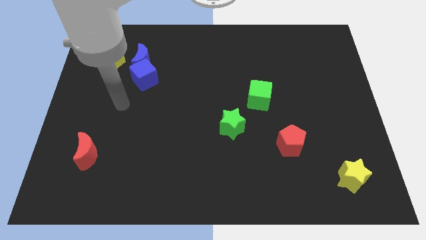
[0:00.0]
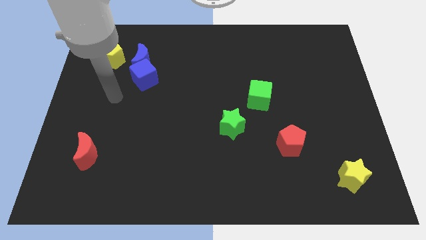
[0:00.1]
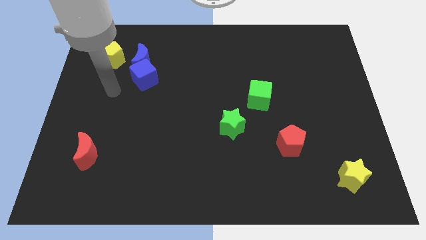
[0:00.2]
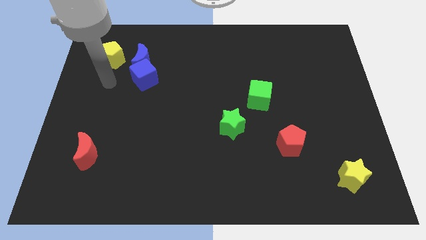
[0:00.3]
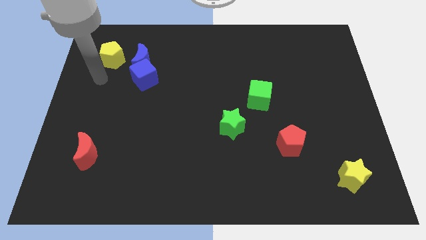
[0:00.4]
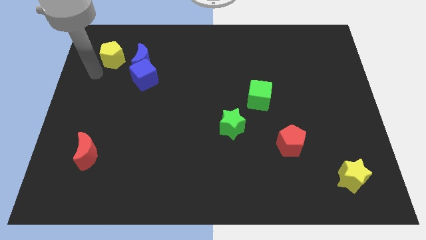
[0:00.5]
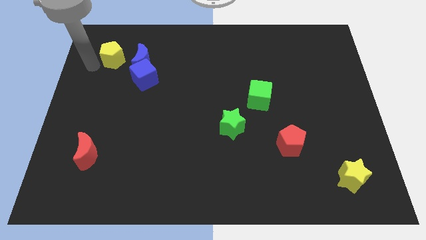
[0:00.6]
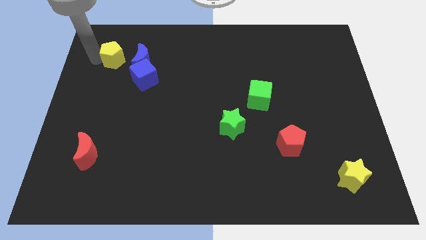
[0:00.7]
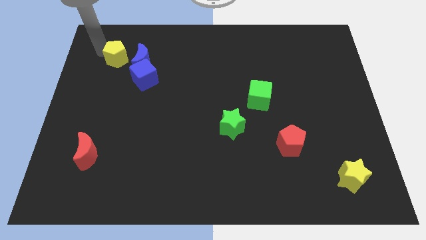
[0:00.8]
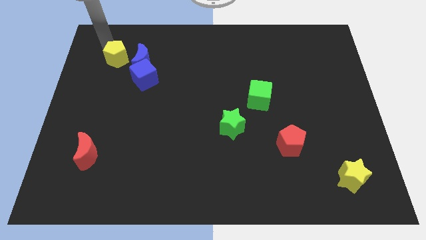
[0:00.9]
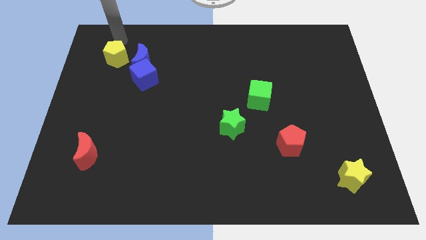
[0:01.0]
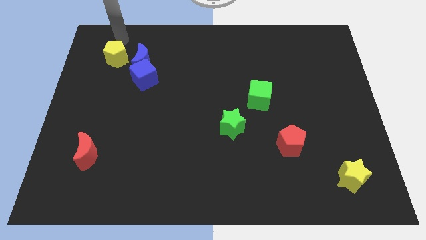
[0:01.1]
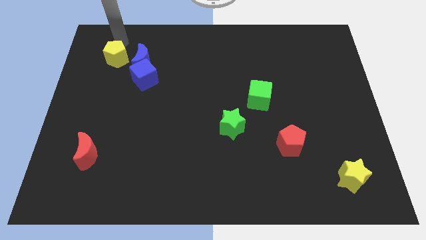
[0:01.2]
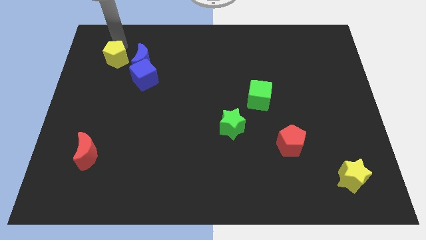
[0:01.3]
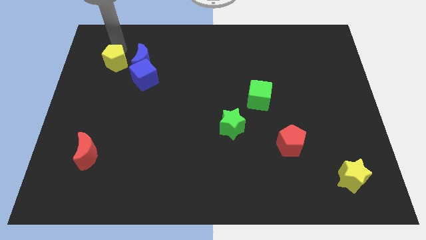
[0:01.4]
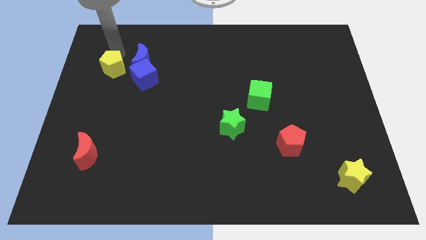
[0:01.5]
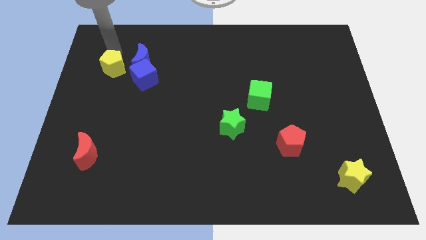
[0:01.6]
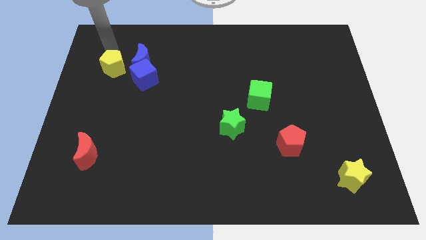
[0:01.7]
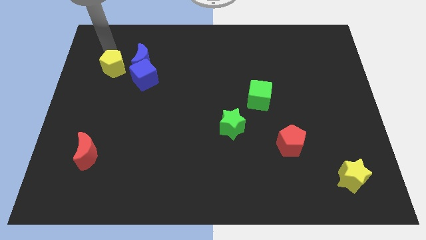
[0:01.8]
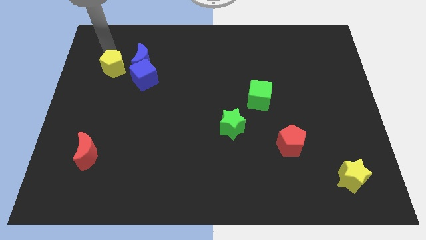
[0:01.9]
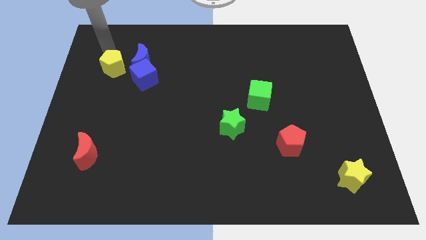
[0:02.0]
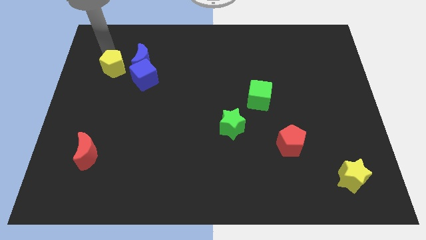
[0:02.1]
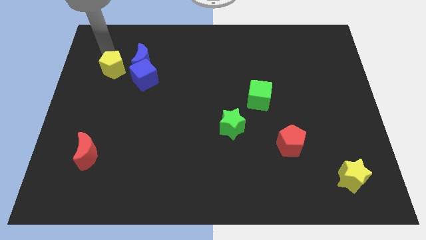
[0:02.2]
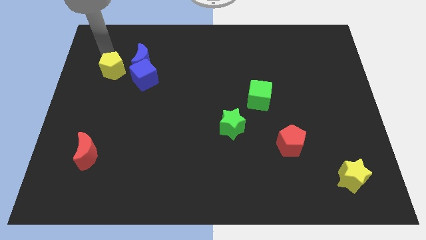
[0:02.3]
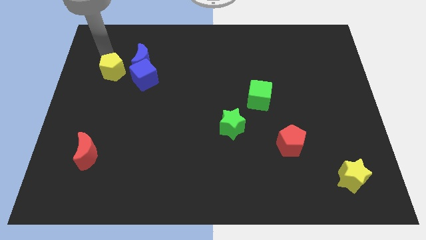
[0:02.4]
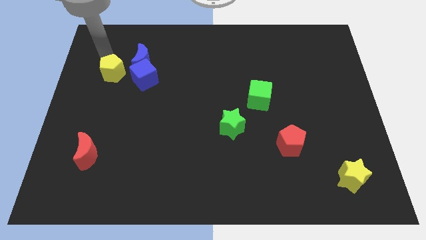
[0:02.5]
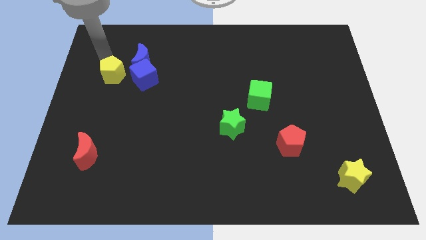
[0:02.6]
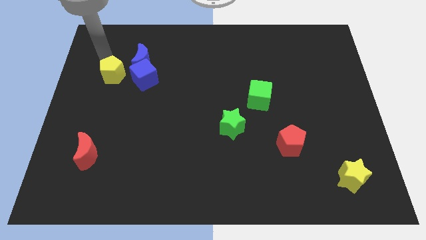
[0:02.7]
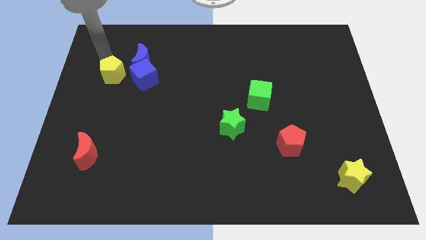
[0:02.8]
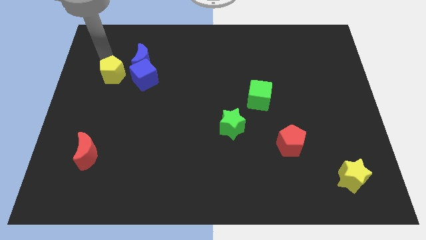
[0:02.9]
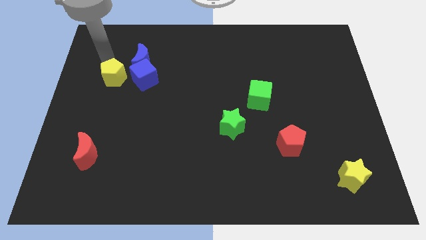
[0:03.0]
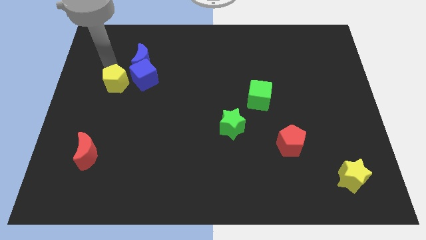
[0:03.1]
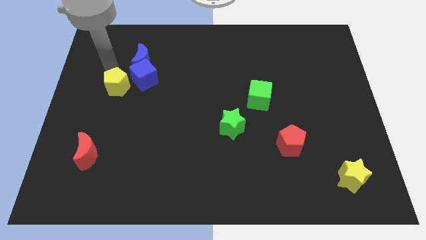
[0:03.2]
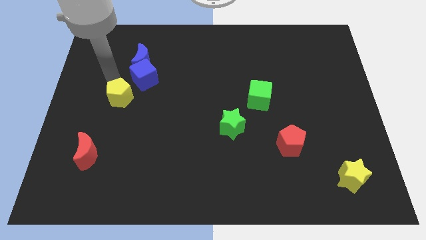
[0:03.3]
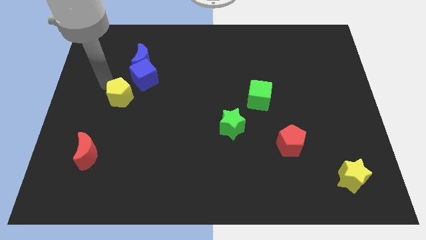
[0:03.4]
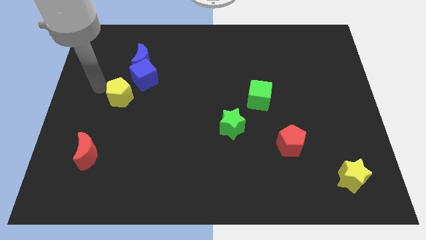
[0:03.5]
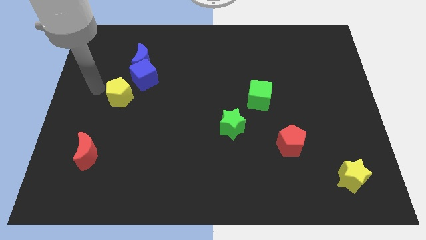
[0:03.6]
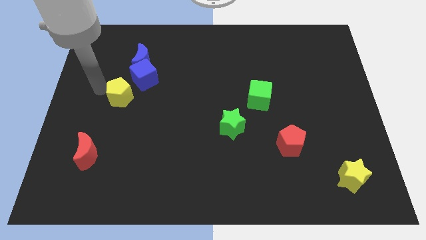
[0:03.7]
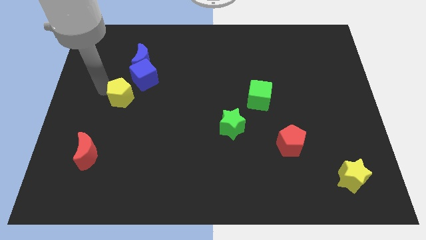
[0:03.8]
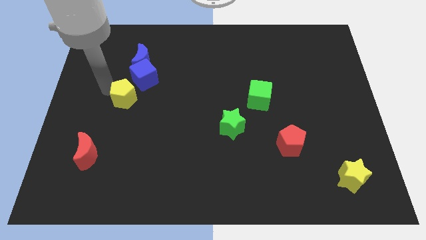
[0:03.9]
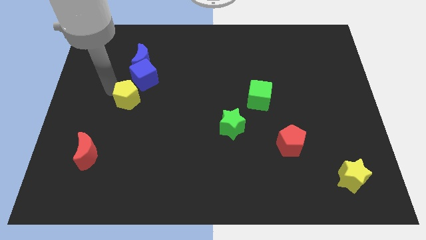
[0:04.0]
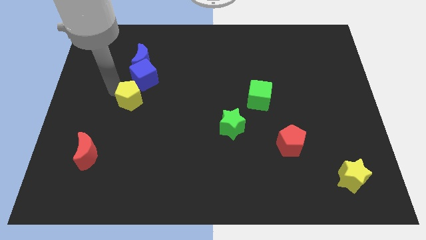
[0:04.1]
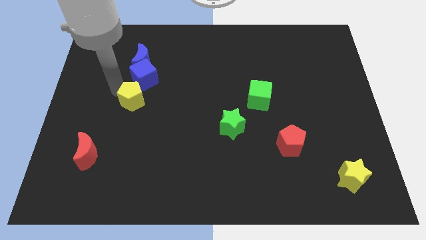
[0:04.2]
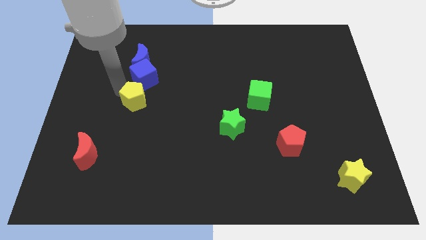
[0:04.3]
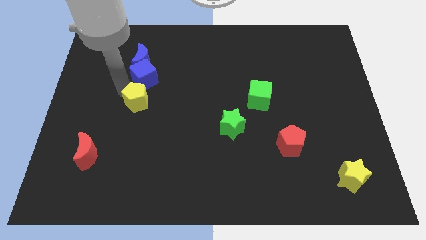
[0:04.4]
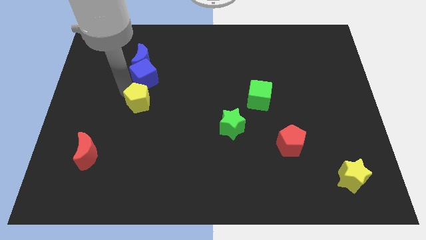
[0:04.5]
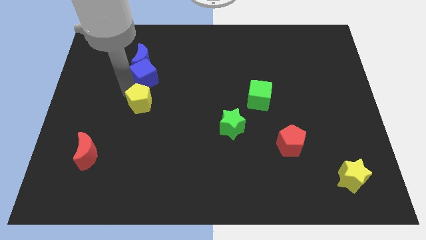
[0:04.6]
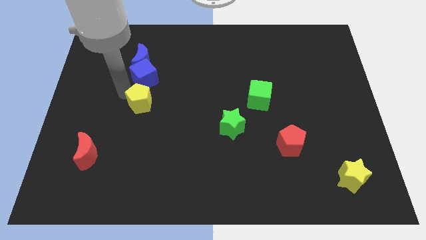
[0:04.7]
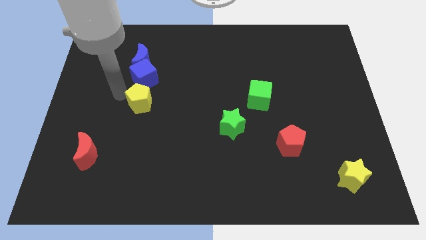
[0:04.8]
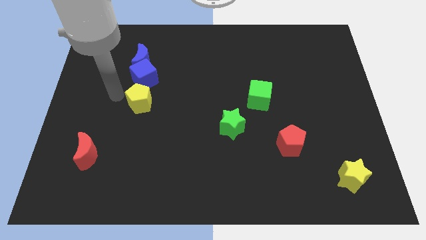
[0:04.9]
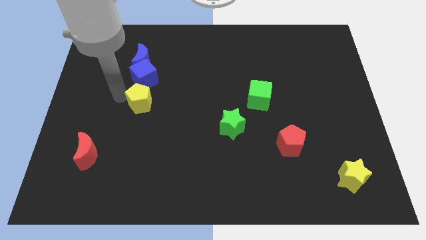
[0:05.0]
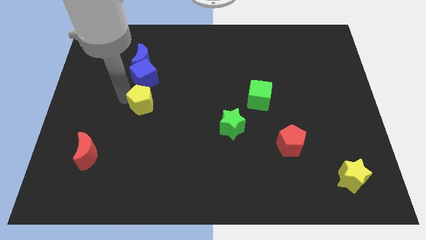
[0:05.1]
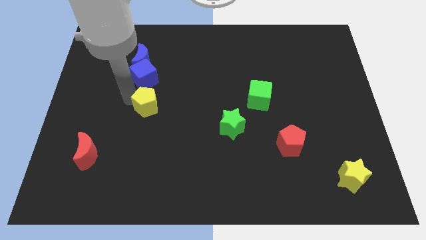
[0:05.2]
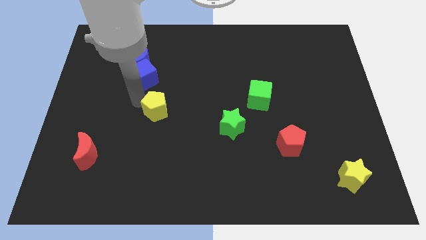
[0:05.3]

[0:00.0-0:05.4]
move the yellow pentagon down and to the right diagonally

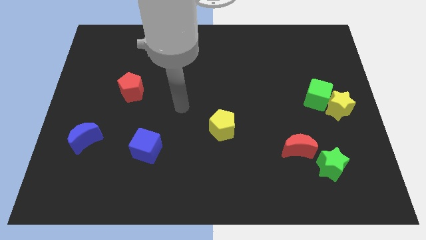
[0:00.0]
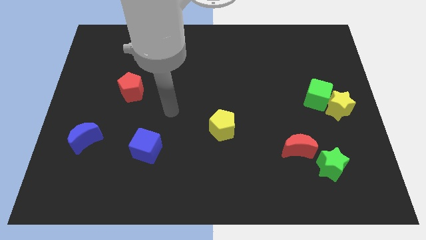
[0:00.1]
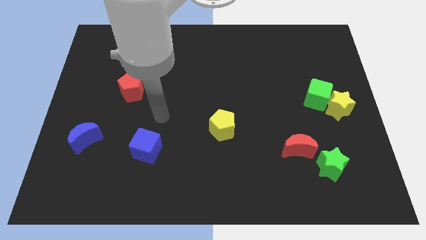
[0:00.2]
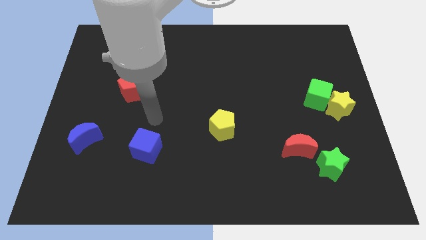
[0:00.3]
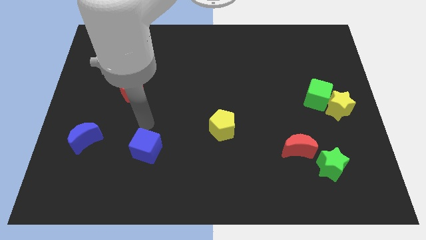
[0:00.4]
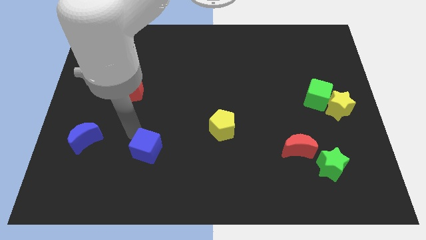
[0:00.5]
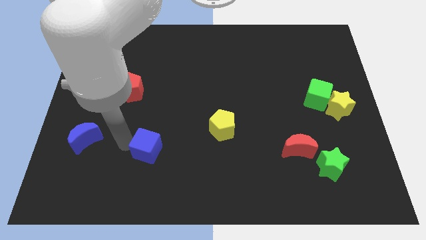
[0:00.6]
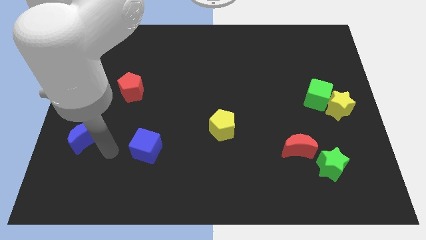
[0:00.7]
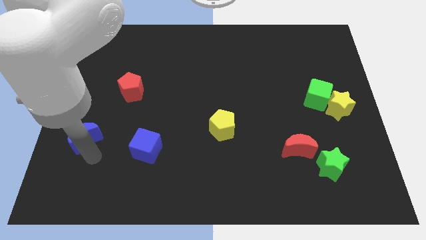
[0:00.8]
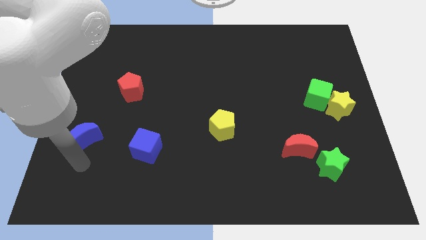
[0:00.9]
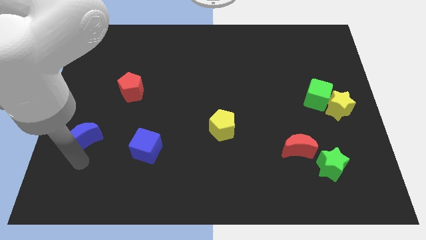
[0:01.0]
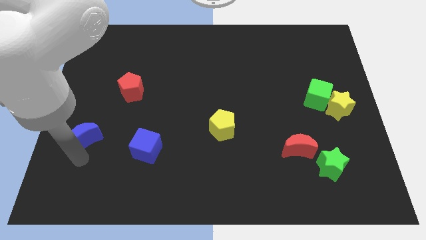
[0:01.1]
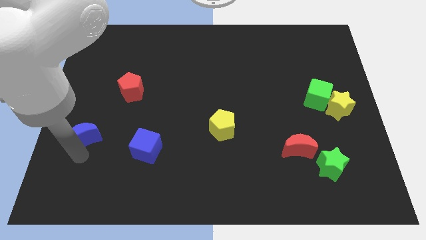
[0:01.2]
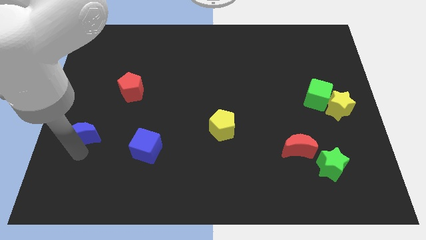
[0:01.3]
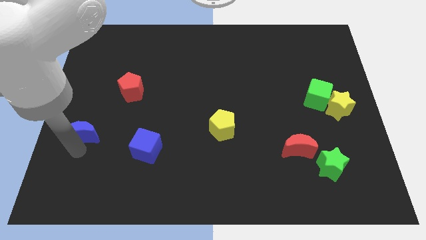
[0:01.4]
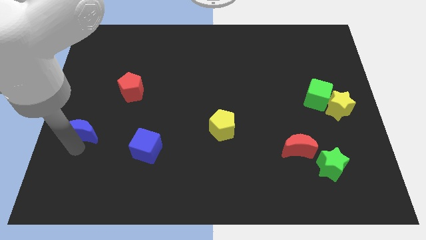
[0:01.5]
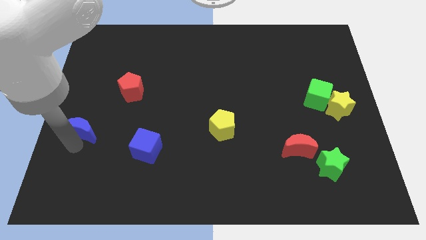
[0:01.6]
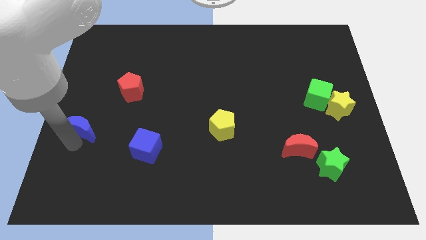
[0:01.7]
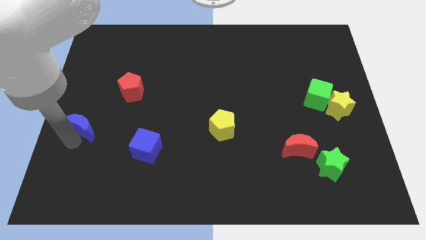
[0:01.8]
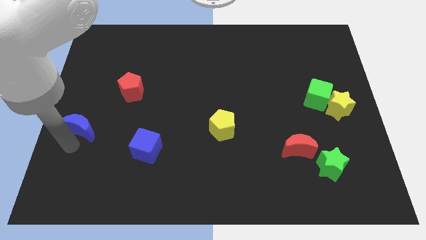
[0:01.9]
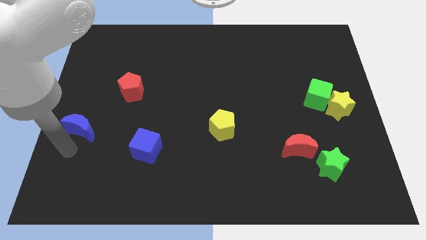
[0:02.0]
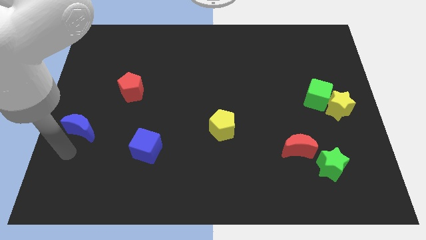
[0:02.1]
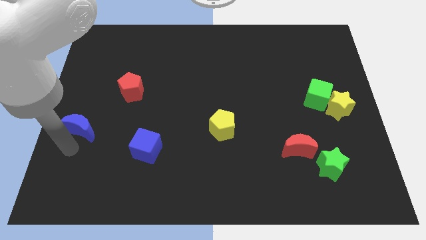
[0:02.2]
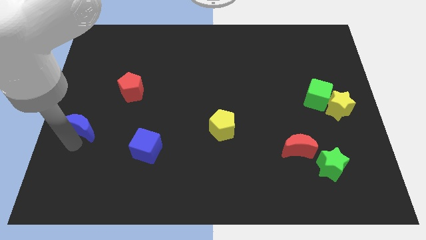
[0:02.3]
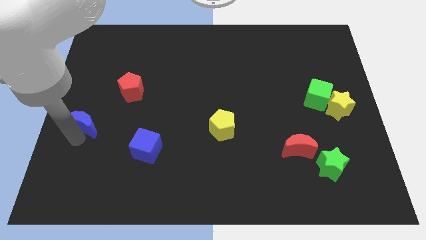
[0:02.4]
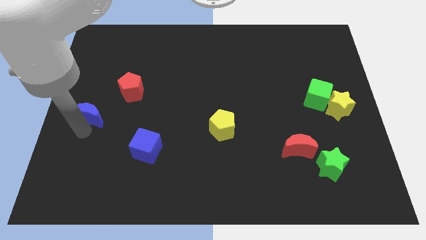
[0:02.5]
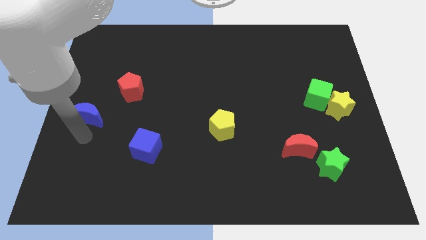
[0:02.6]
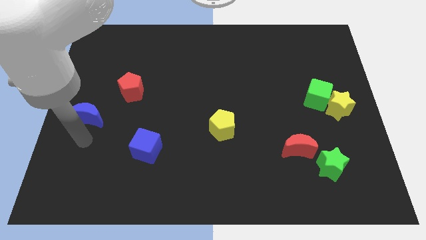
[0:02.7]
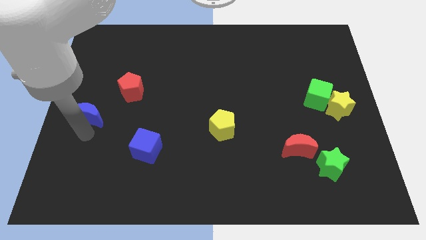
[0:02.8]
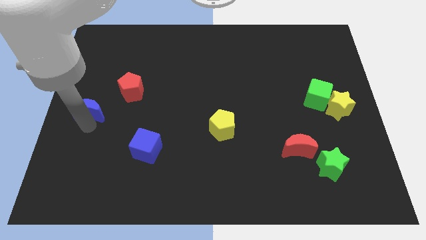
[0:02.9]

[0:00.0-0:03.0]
slide the blue moon a bit upwards
